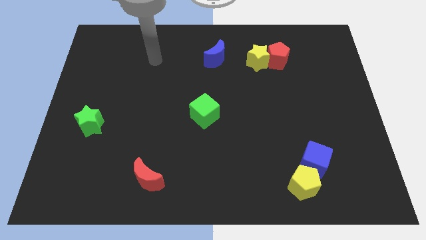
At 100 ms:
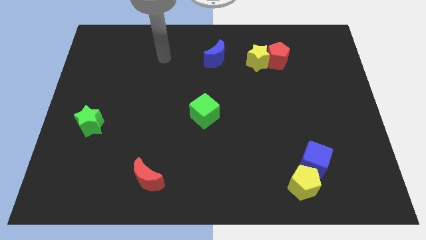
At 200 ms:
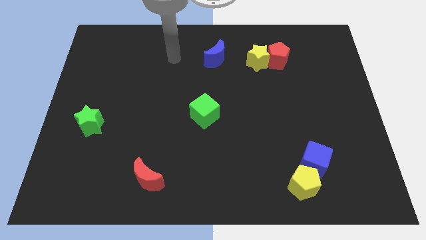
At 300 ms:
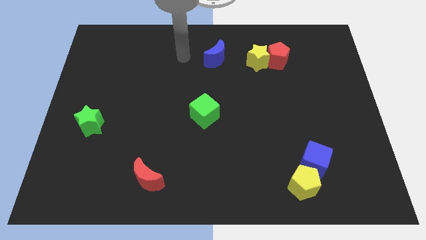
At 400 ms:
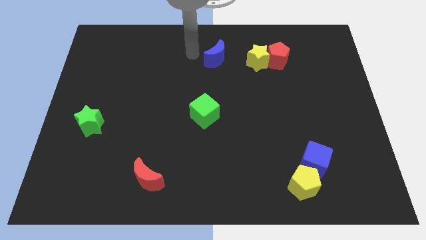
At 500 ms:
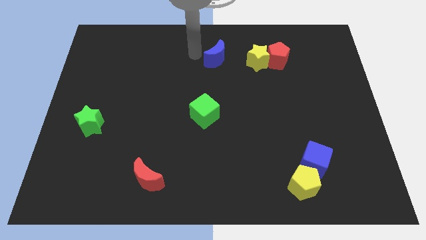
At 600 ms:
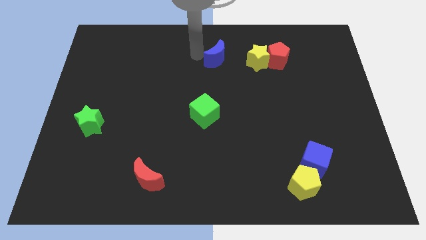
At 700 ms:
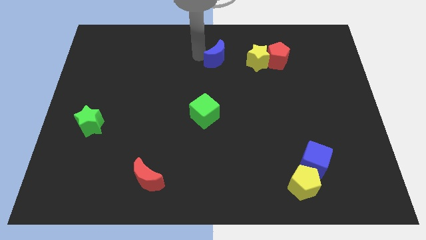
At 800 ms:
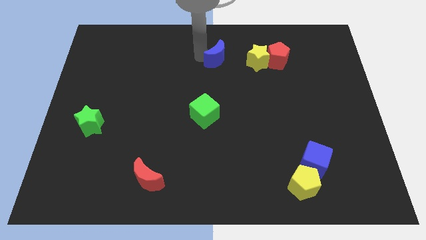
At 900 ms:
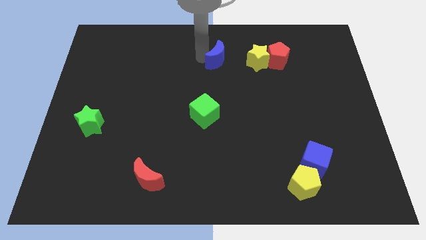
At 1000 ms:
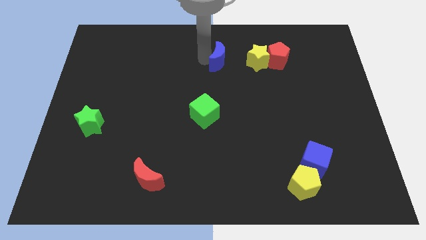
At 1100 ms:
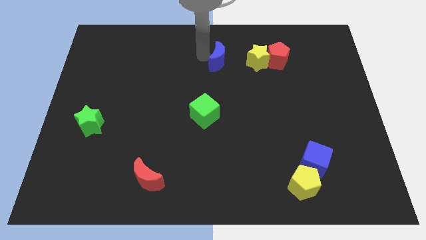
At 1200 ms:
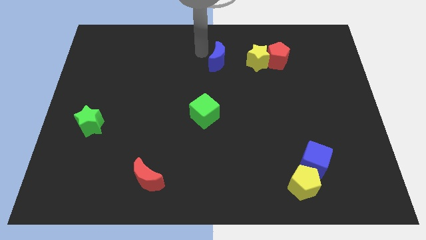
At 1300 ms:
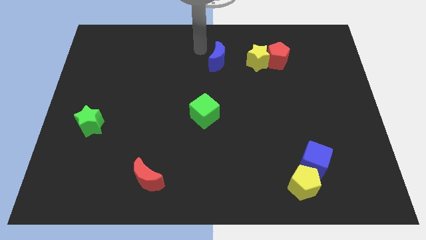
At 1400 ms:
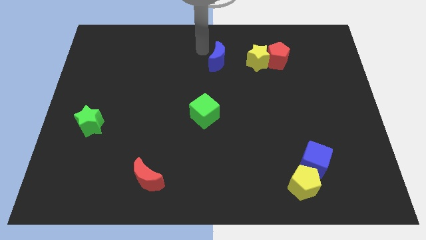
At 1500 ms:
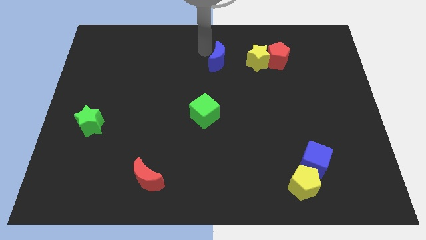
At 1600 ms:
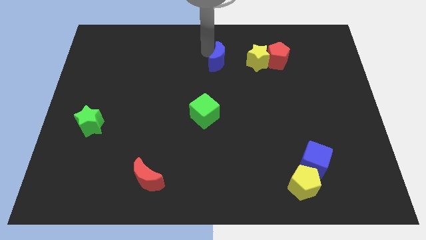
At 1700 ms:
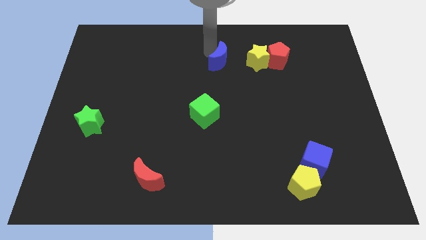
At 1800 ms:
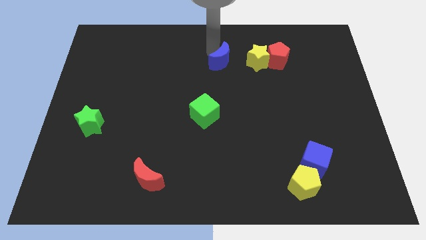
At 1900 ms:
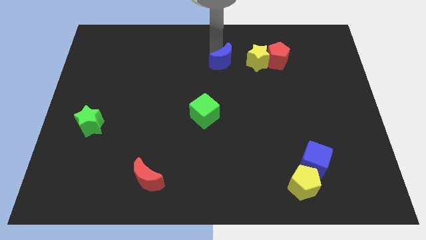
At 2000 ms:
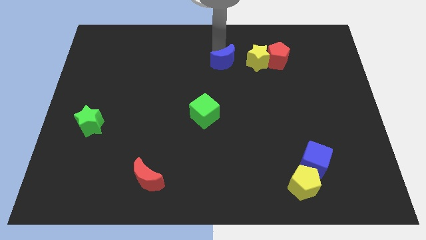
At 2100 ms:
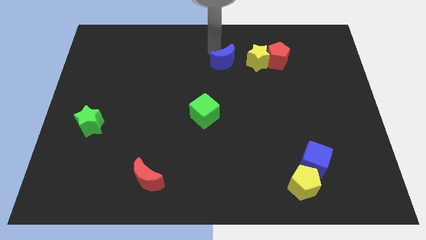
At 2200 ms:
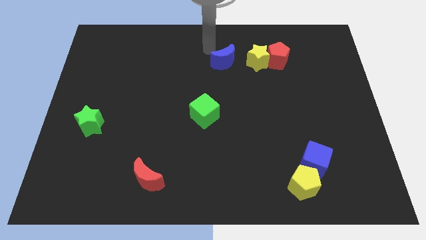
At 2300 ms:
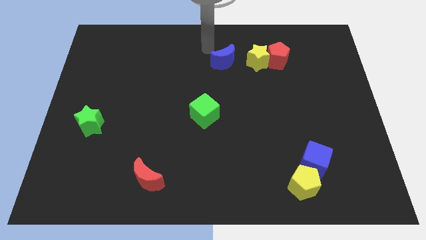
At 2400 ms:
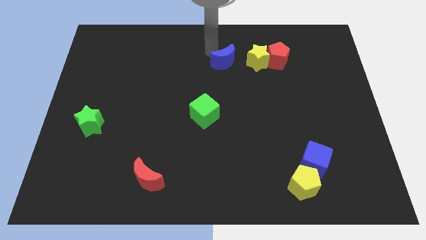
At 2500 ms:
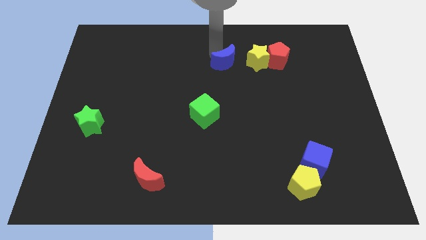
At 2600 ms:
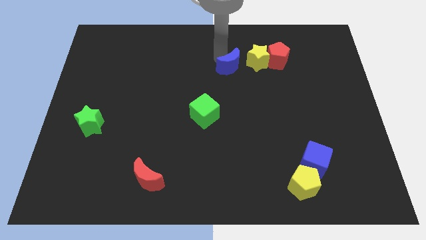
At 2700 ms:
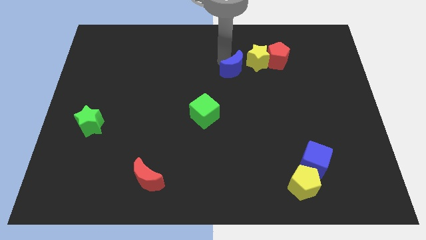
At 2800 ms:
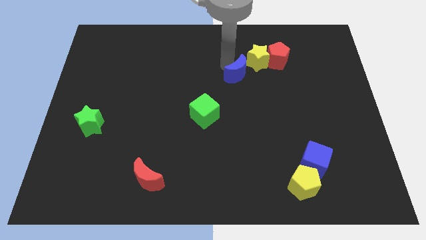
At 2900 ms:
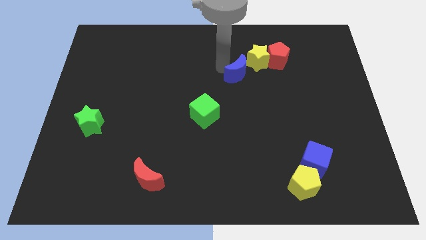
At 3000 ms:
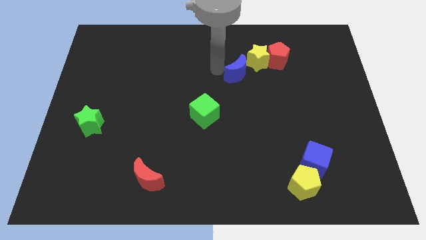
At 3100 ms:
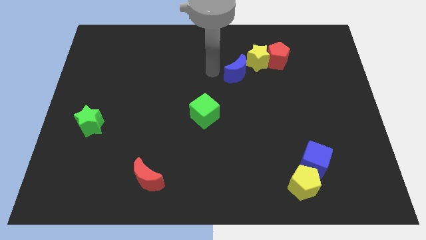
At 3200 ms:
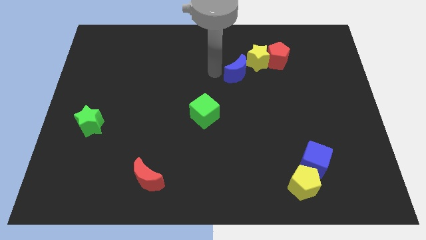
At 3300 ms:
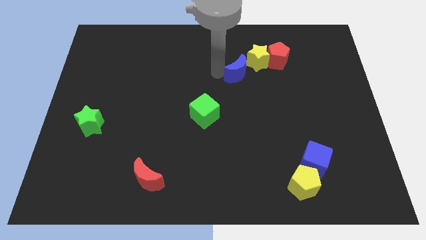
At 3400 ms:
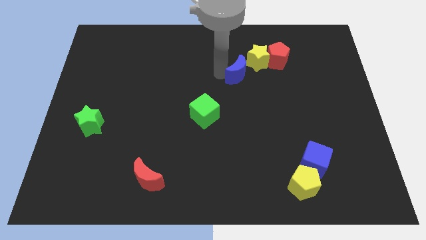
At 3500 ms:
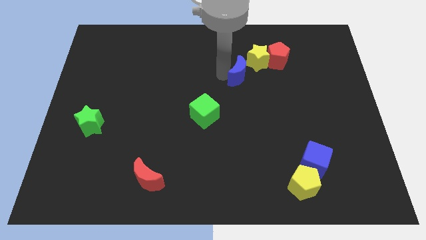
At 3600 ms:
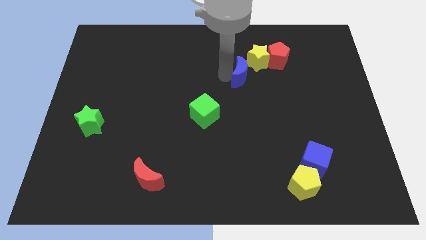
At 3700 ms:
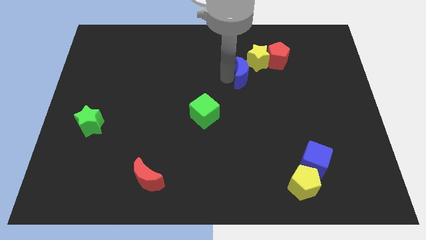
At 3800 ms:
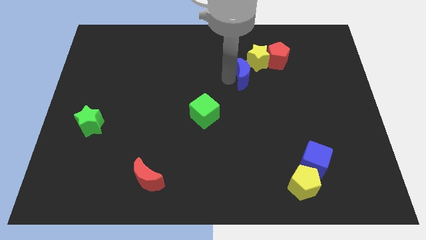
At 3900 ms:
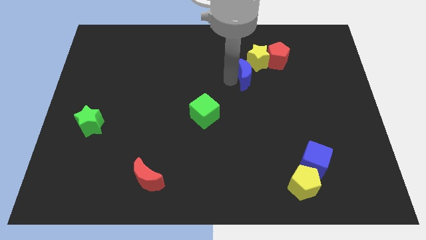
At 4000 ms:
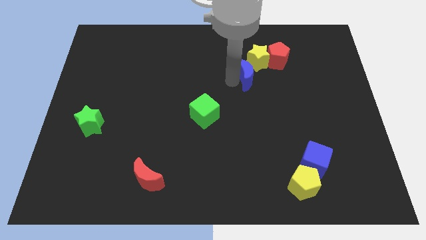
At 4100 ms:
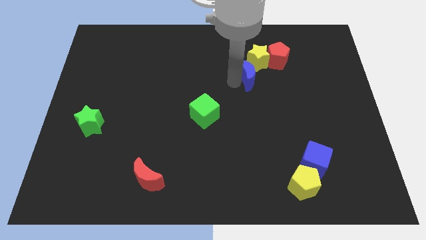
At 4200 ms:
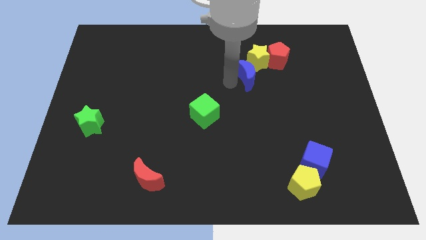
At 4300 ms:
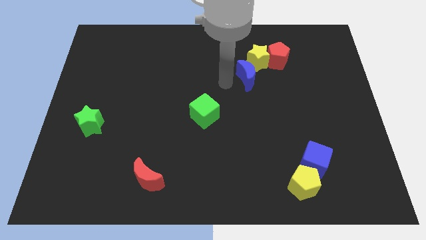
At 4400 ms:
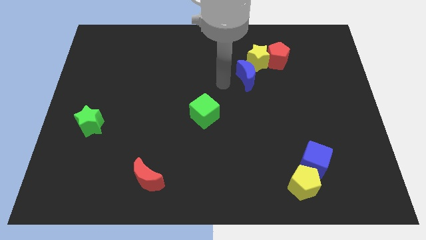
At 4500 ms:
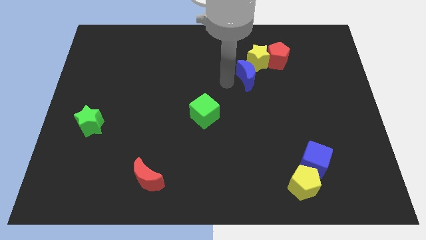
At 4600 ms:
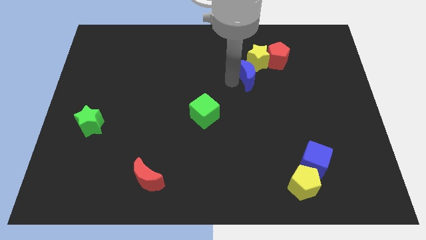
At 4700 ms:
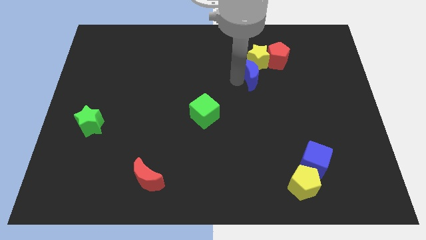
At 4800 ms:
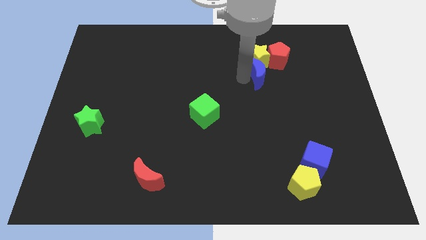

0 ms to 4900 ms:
push the blue moon diagonally down and to the right of the yellow star

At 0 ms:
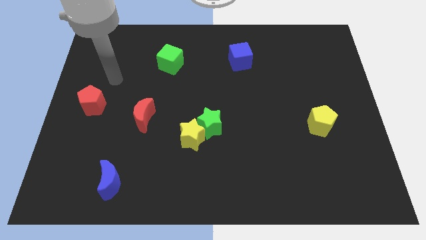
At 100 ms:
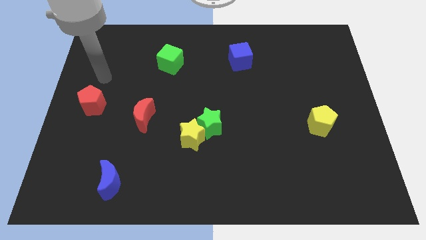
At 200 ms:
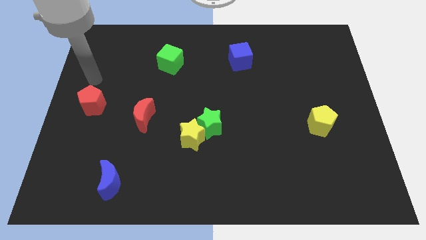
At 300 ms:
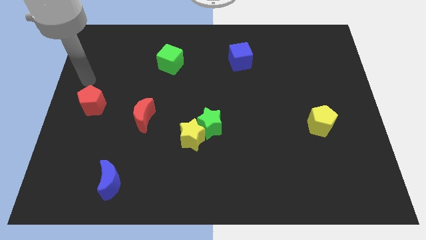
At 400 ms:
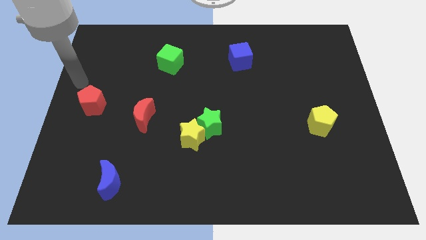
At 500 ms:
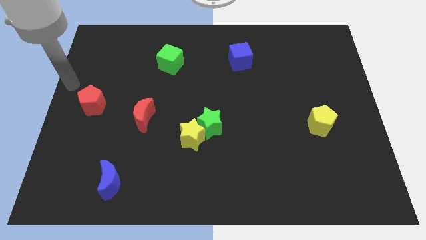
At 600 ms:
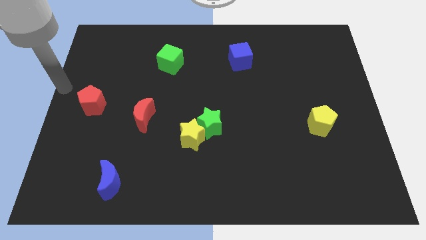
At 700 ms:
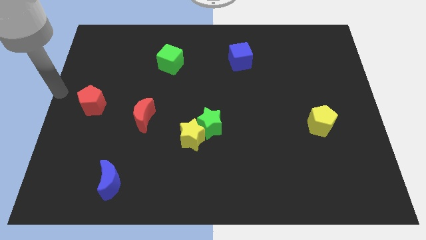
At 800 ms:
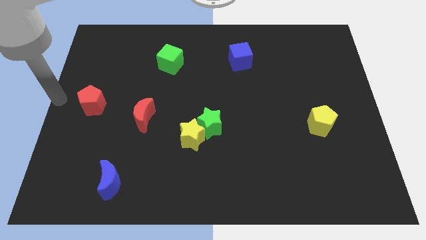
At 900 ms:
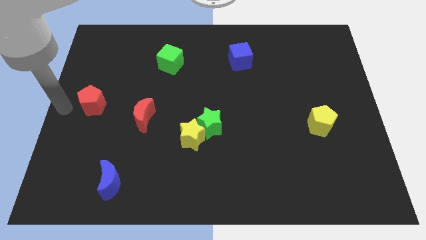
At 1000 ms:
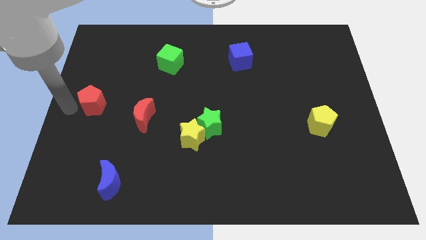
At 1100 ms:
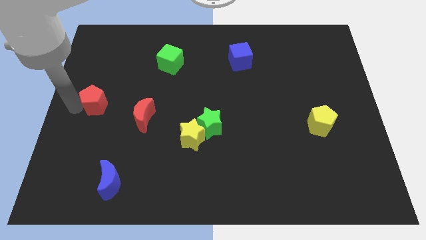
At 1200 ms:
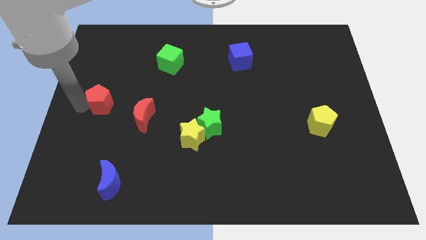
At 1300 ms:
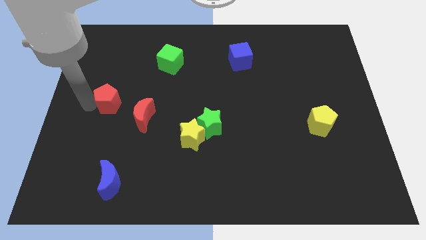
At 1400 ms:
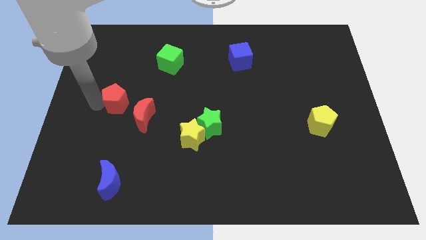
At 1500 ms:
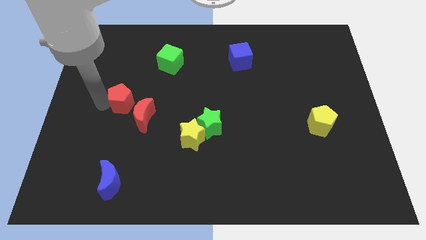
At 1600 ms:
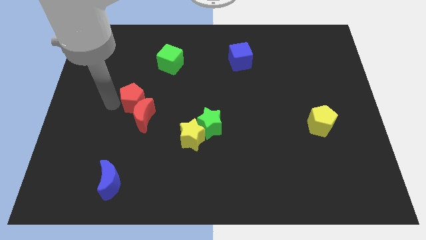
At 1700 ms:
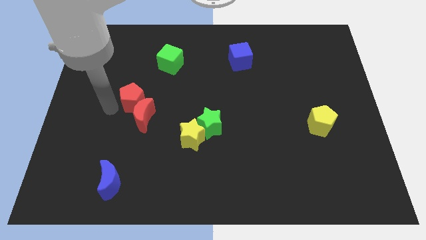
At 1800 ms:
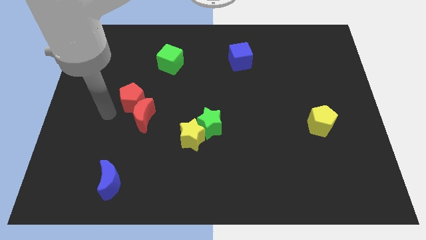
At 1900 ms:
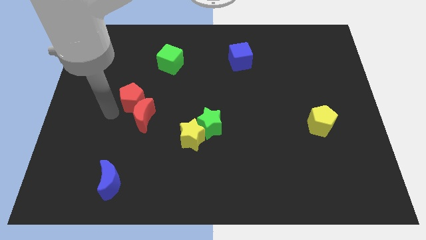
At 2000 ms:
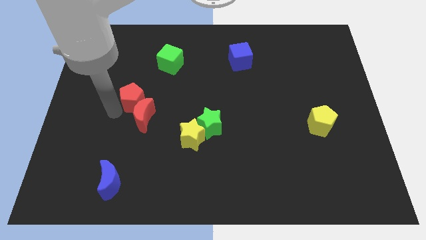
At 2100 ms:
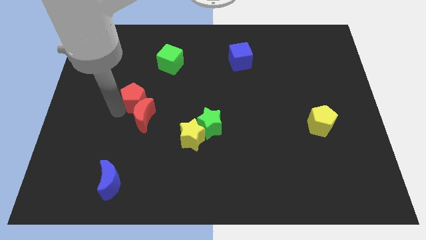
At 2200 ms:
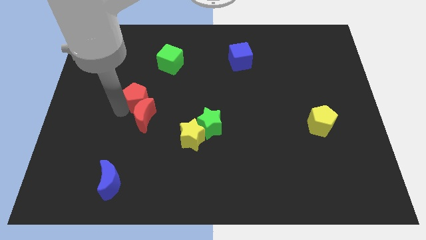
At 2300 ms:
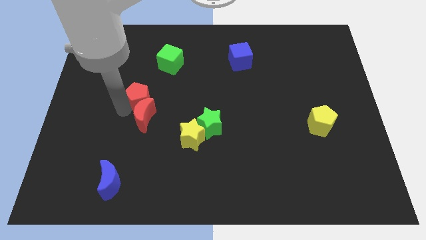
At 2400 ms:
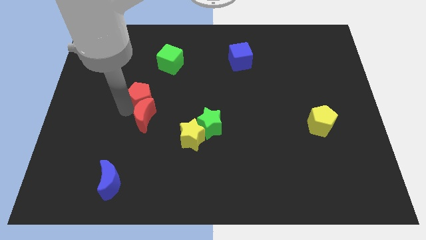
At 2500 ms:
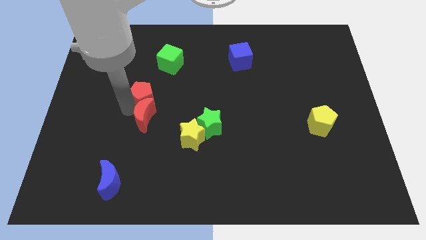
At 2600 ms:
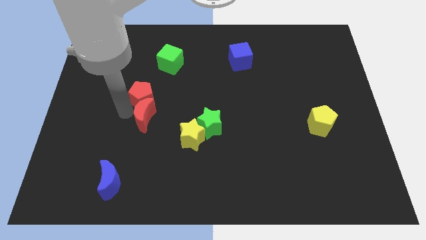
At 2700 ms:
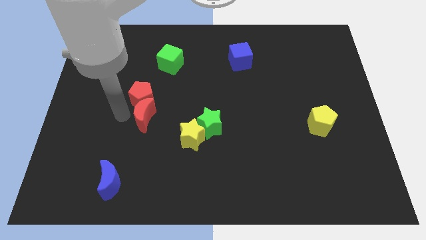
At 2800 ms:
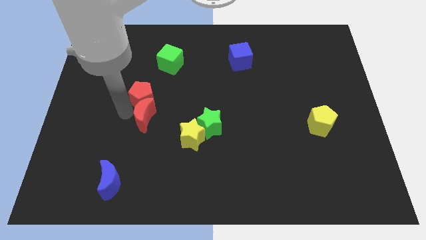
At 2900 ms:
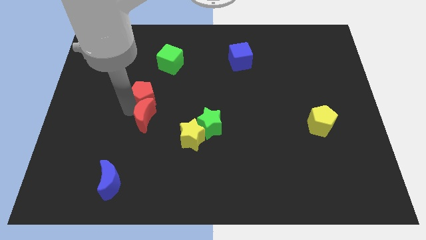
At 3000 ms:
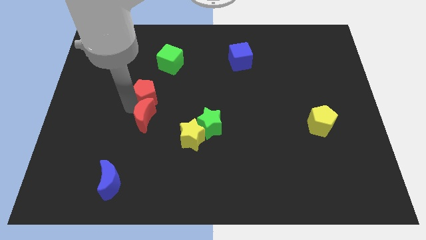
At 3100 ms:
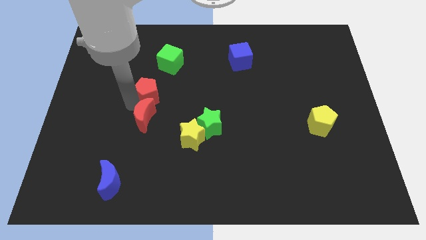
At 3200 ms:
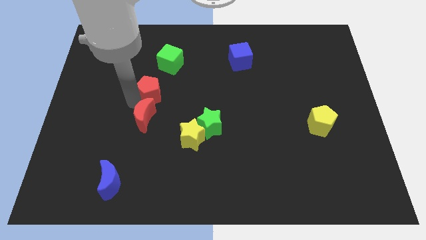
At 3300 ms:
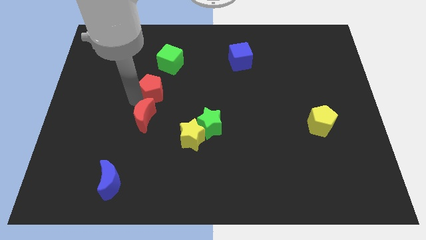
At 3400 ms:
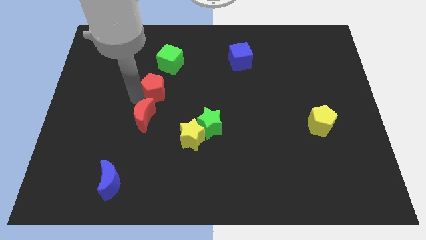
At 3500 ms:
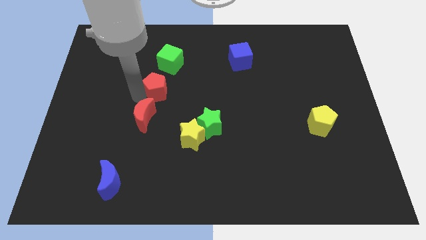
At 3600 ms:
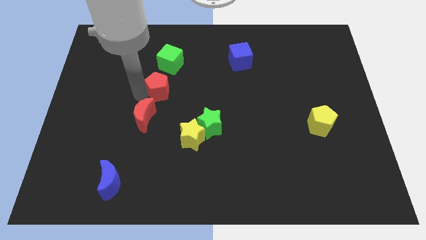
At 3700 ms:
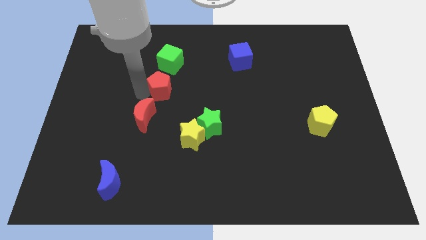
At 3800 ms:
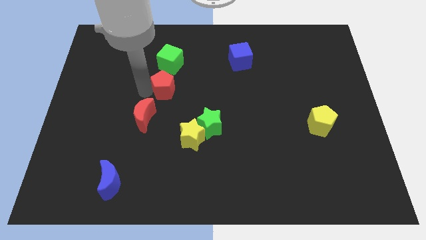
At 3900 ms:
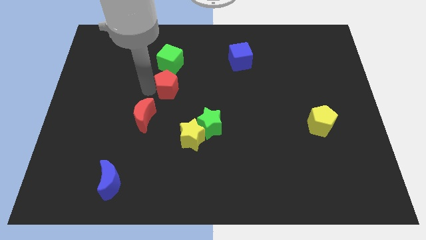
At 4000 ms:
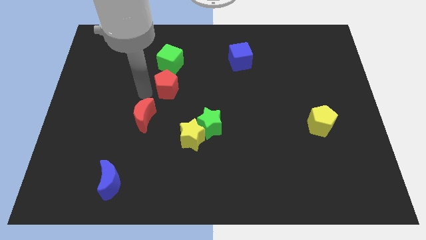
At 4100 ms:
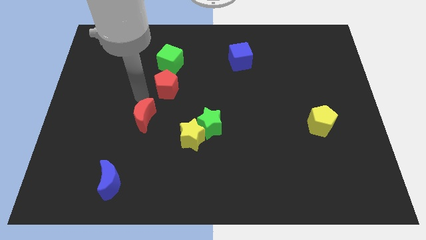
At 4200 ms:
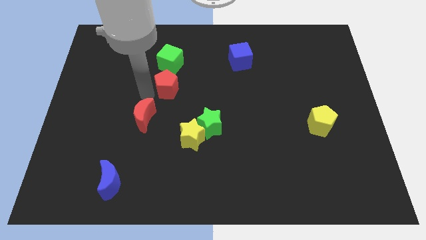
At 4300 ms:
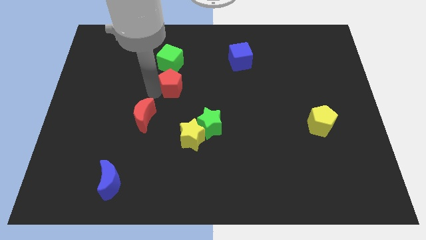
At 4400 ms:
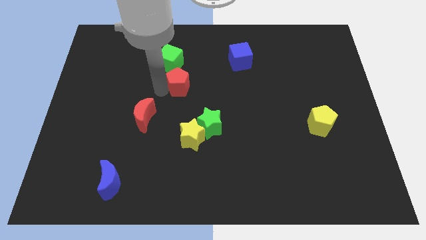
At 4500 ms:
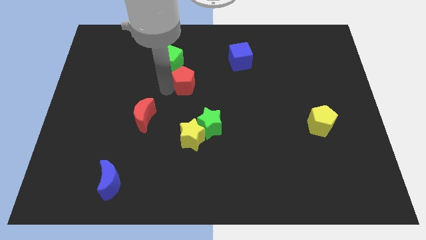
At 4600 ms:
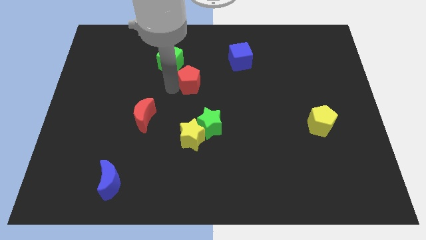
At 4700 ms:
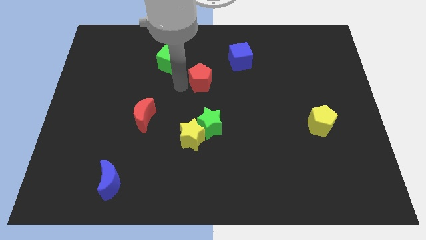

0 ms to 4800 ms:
move the red pentagon to the bottom left of the blue cube
